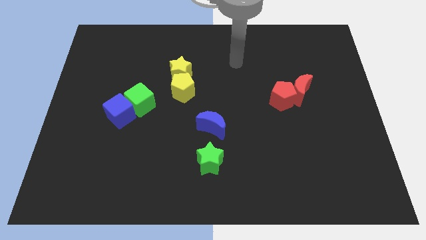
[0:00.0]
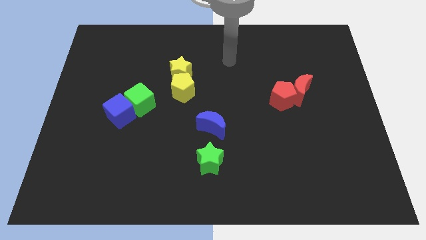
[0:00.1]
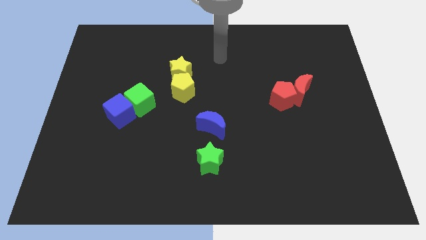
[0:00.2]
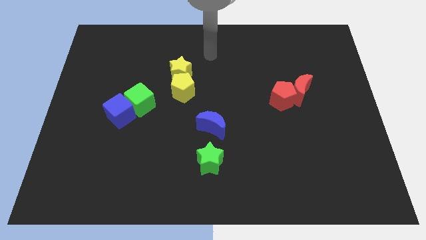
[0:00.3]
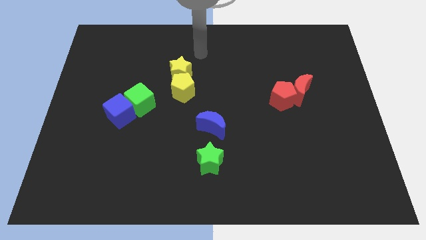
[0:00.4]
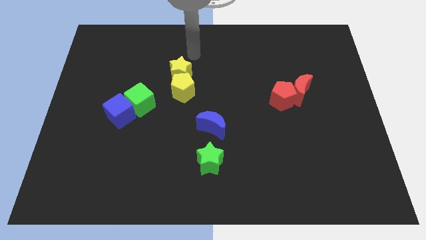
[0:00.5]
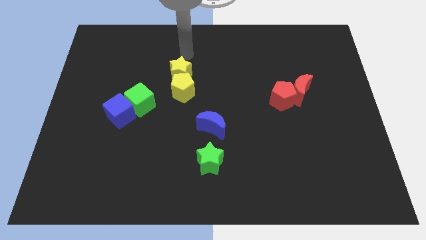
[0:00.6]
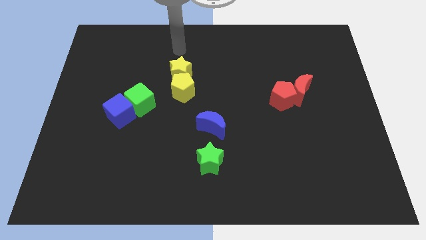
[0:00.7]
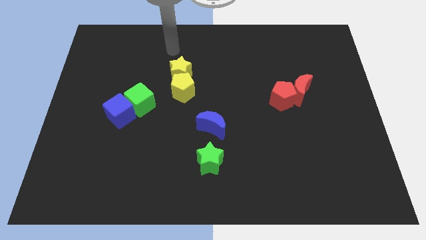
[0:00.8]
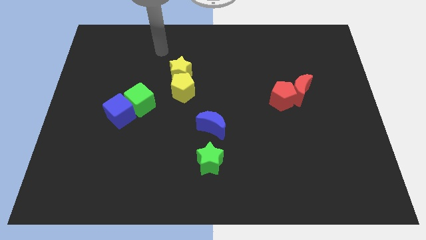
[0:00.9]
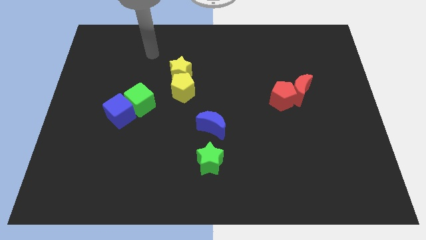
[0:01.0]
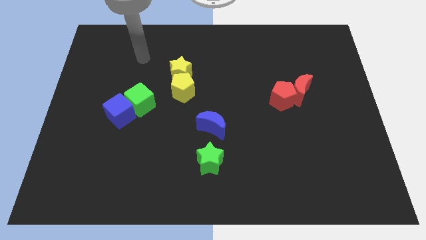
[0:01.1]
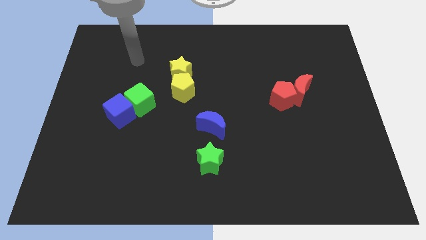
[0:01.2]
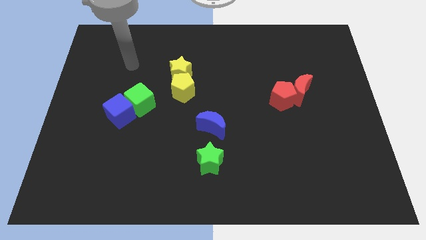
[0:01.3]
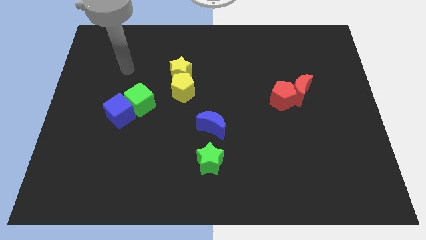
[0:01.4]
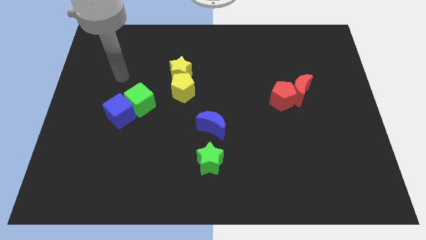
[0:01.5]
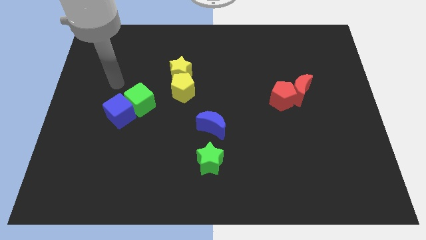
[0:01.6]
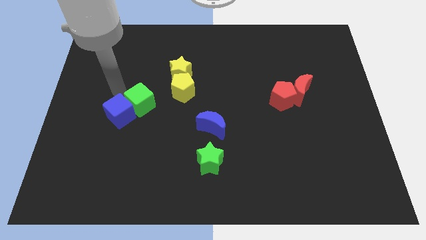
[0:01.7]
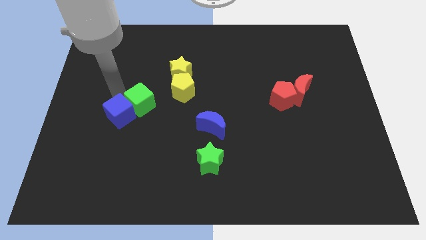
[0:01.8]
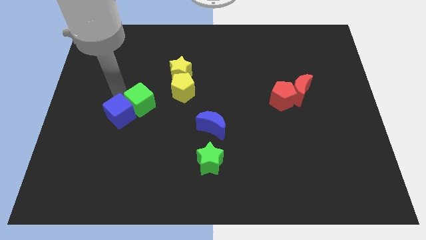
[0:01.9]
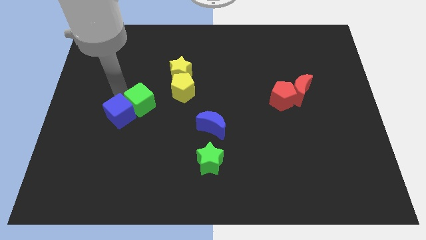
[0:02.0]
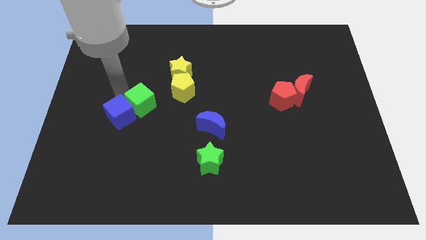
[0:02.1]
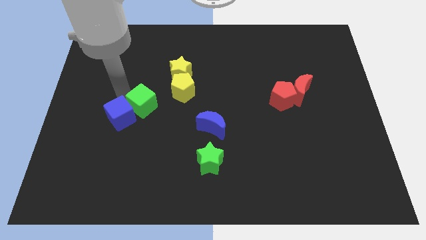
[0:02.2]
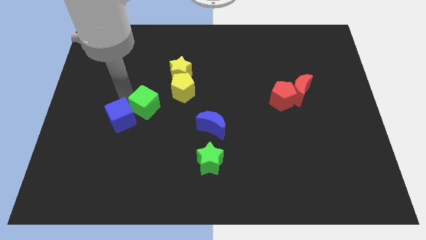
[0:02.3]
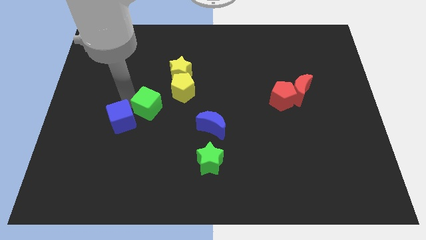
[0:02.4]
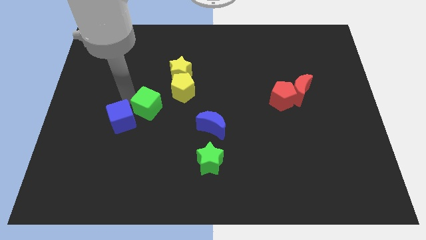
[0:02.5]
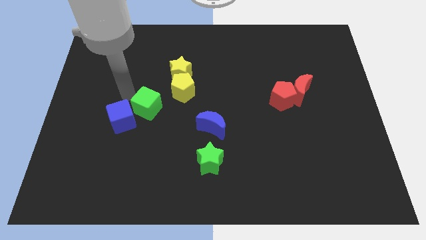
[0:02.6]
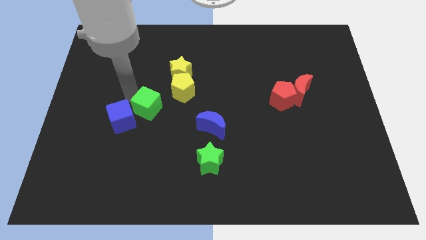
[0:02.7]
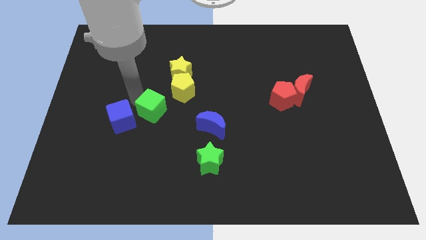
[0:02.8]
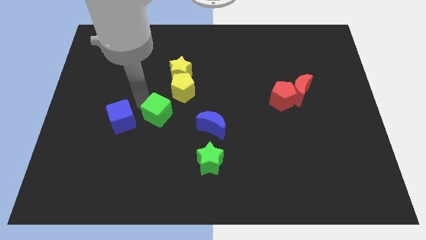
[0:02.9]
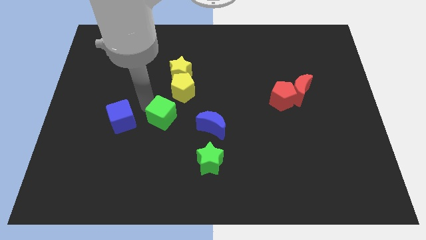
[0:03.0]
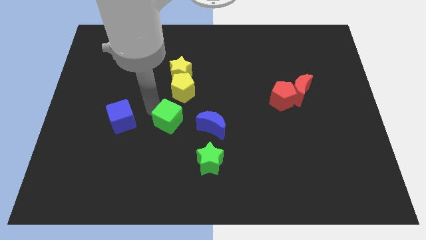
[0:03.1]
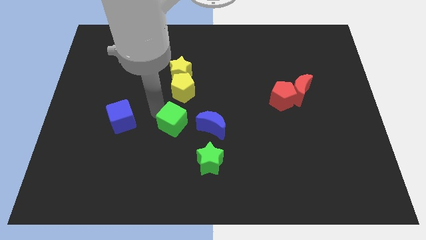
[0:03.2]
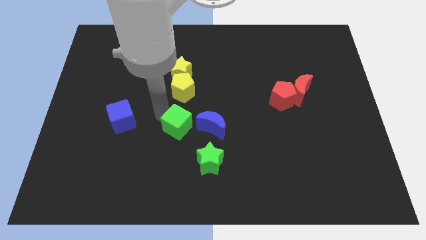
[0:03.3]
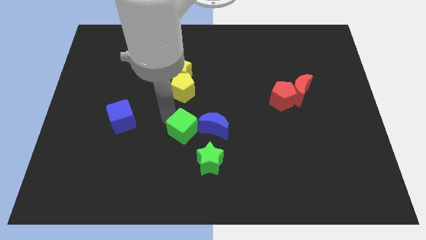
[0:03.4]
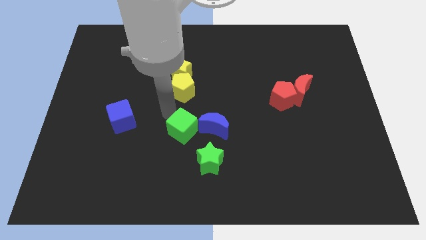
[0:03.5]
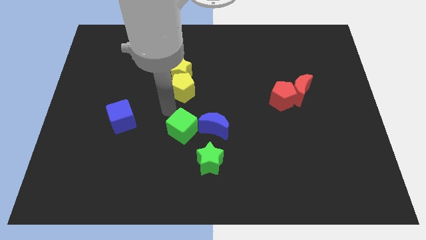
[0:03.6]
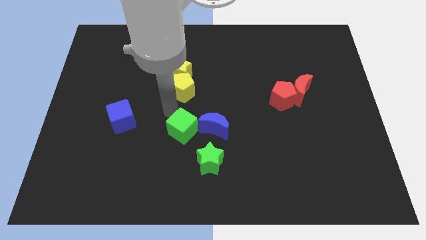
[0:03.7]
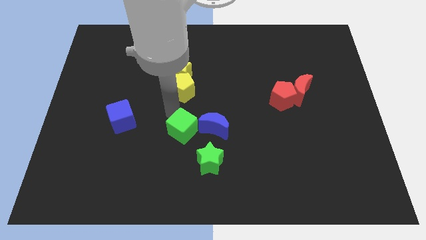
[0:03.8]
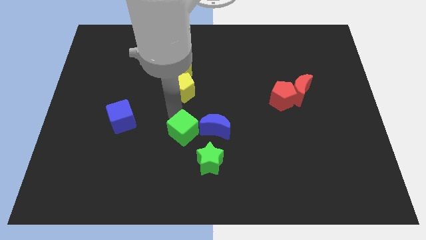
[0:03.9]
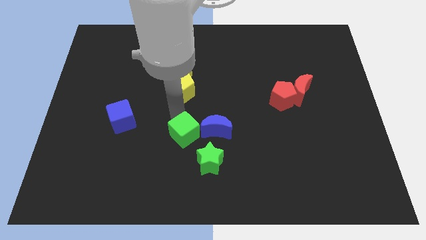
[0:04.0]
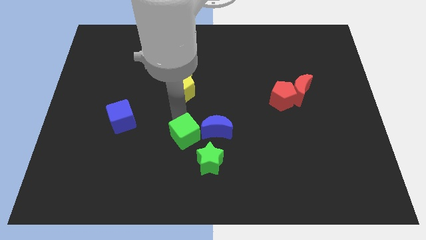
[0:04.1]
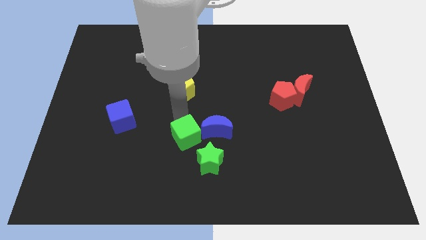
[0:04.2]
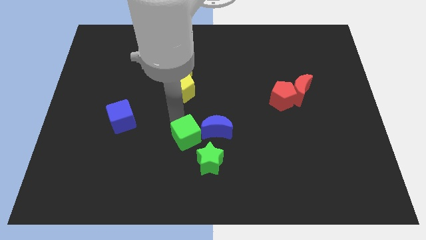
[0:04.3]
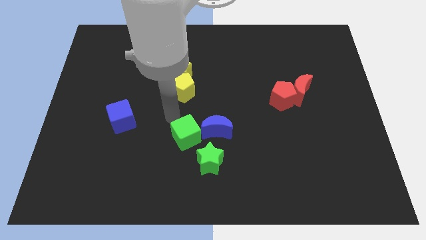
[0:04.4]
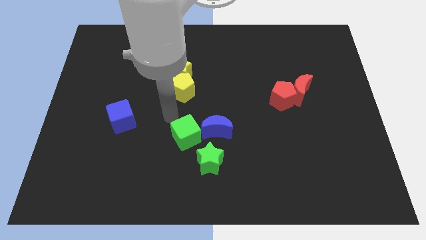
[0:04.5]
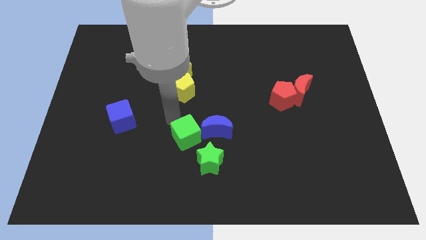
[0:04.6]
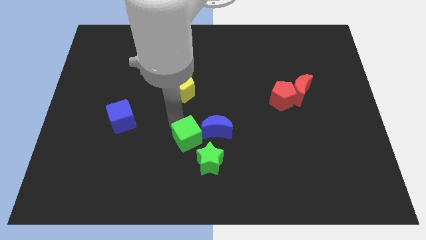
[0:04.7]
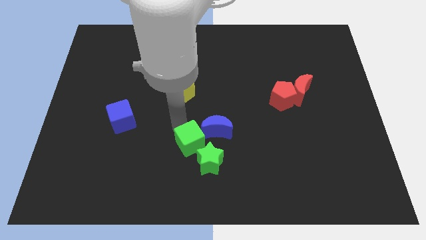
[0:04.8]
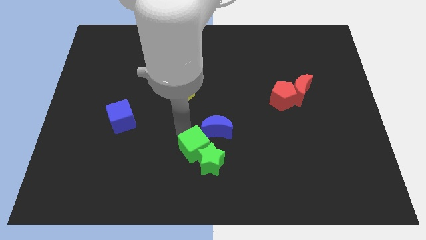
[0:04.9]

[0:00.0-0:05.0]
push the green cube to the green star

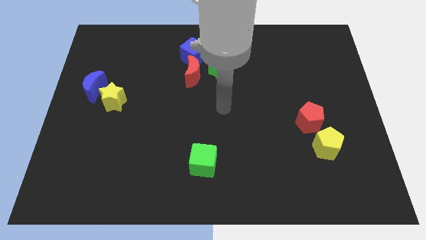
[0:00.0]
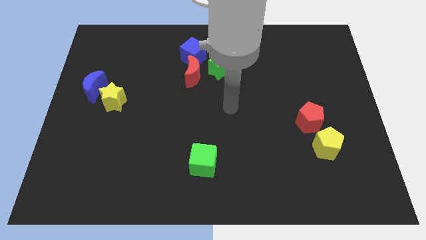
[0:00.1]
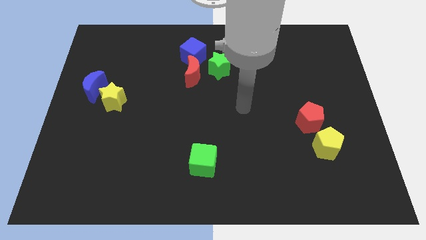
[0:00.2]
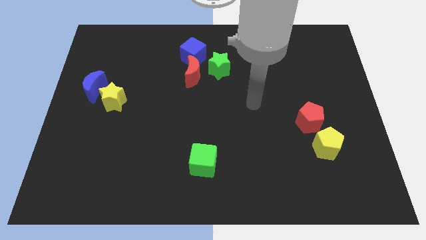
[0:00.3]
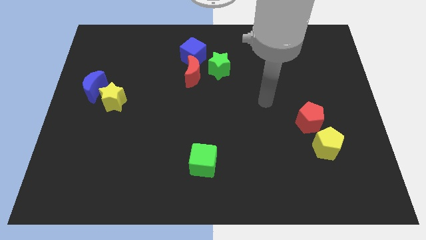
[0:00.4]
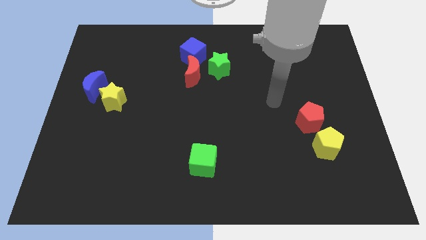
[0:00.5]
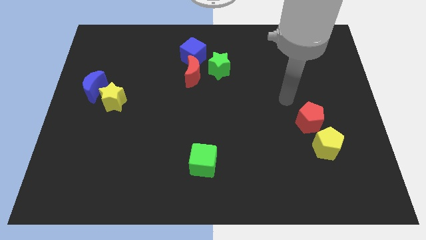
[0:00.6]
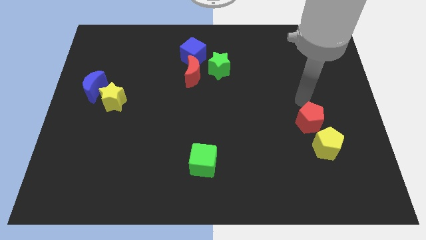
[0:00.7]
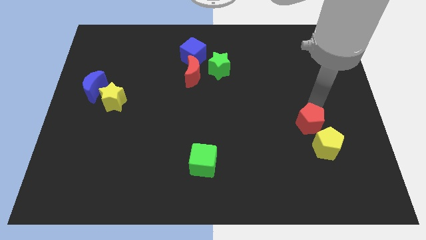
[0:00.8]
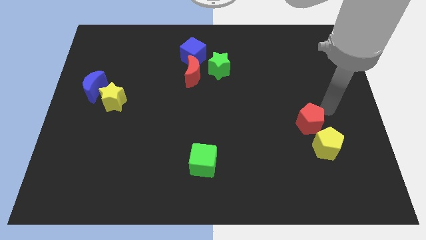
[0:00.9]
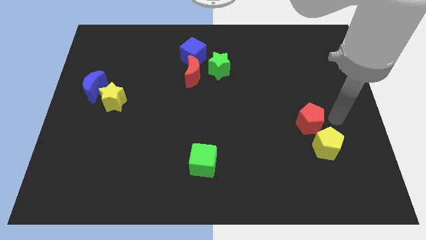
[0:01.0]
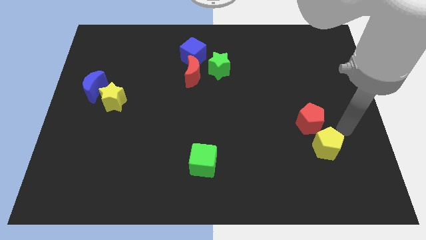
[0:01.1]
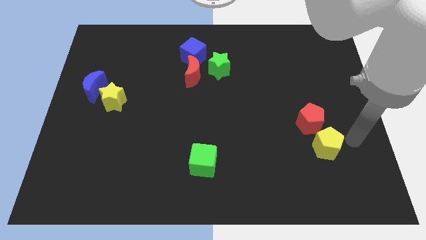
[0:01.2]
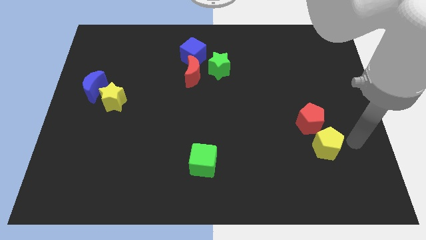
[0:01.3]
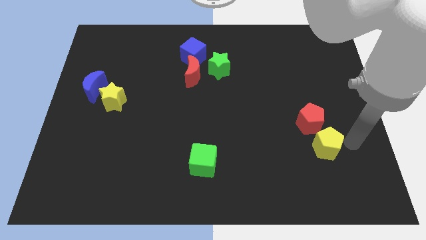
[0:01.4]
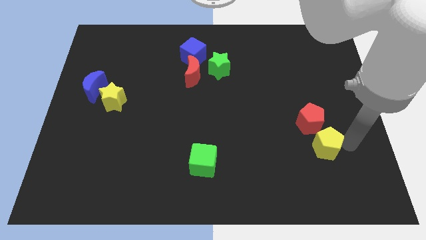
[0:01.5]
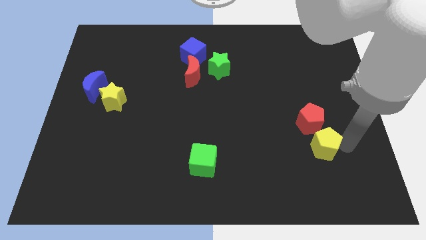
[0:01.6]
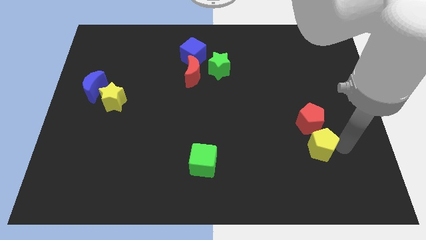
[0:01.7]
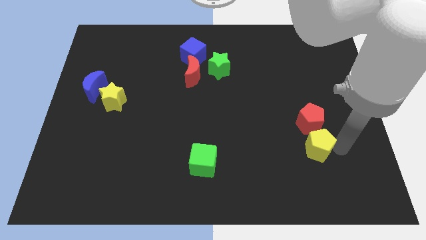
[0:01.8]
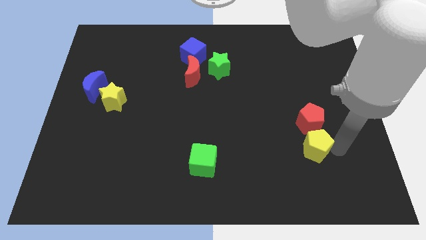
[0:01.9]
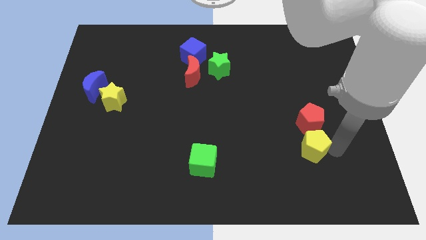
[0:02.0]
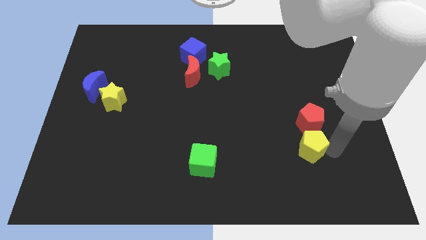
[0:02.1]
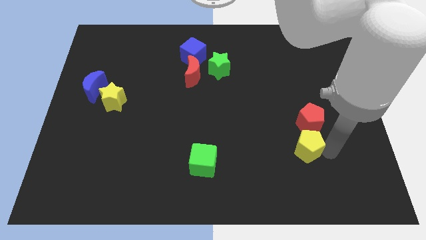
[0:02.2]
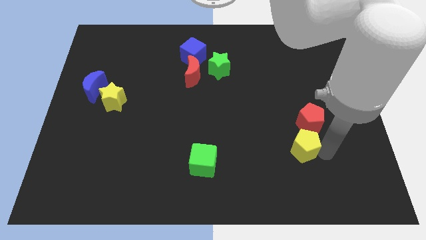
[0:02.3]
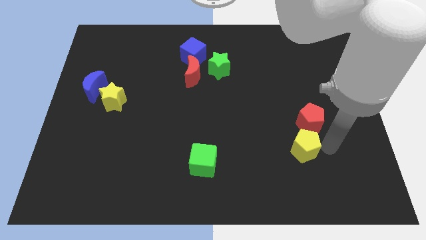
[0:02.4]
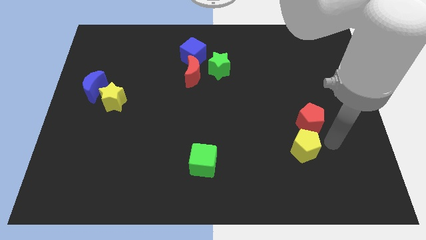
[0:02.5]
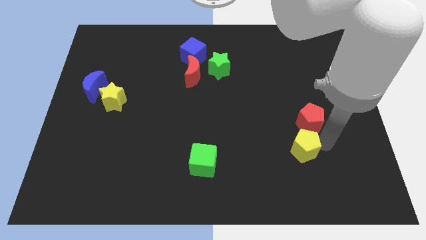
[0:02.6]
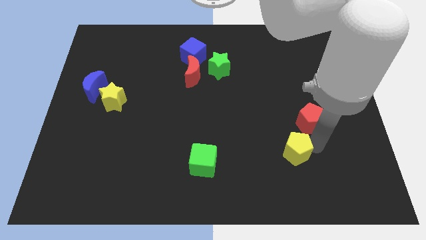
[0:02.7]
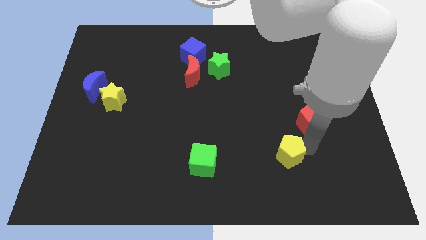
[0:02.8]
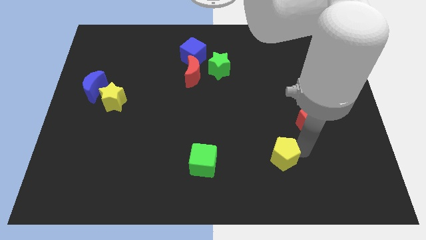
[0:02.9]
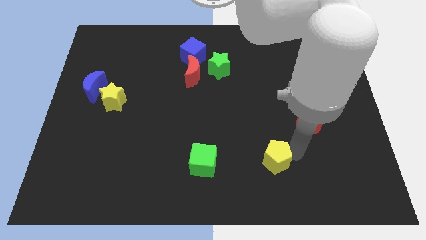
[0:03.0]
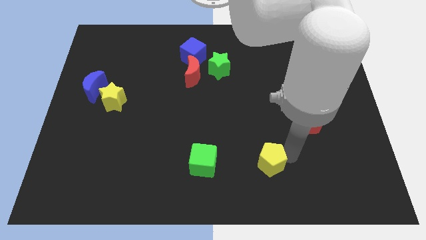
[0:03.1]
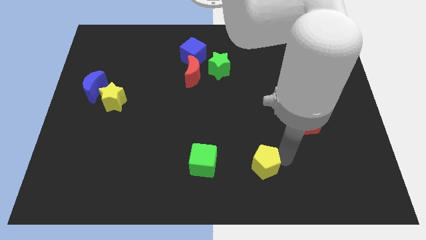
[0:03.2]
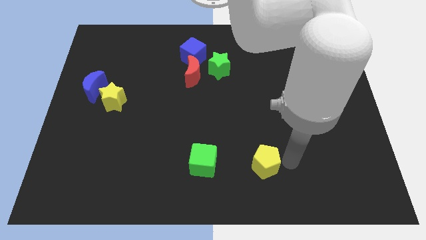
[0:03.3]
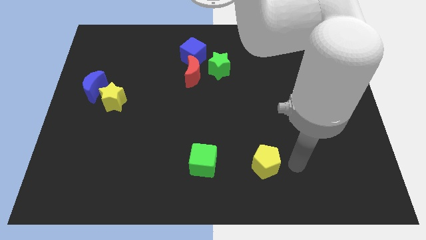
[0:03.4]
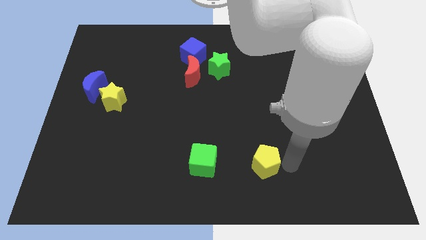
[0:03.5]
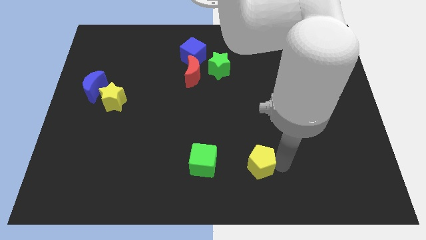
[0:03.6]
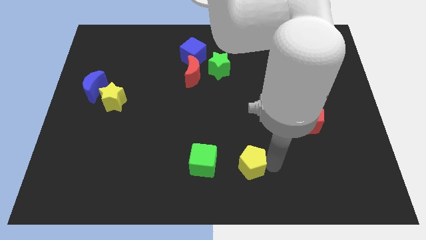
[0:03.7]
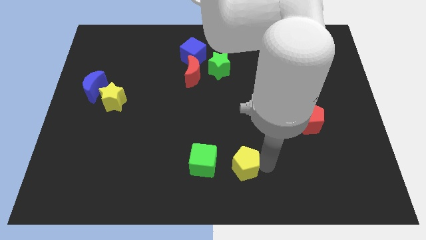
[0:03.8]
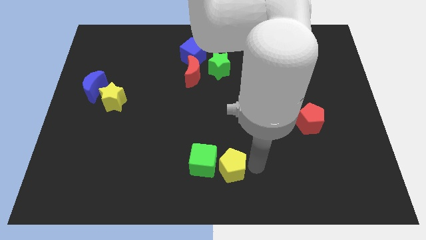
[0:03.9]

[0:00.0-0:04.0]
move the yellow pentagon close to the green cube
